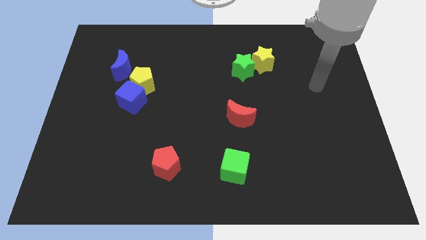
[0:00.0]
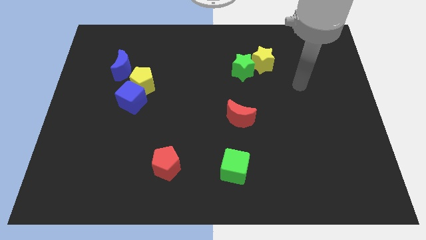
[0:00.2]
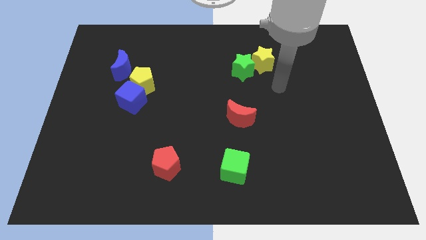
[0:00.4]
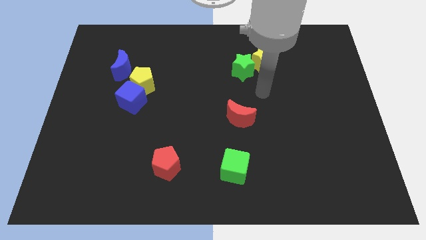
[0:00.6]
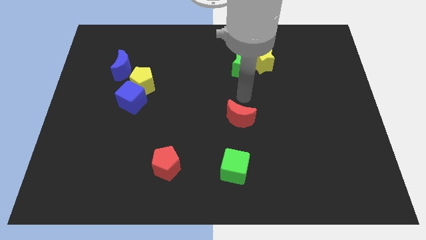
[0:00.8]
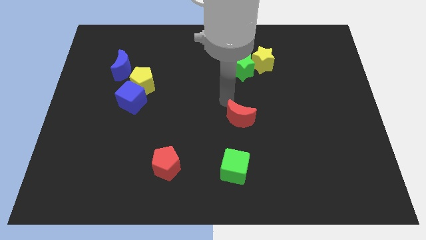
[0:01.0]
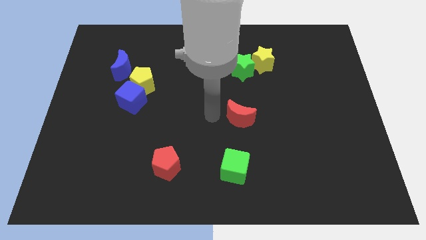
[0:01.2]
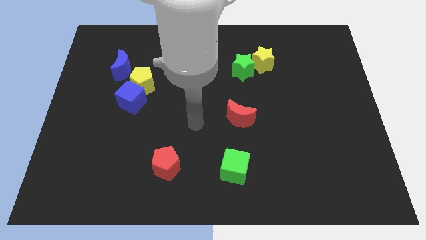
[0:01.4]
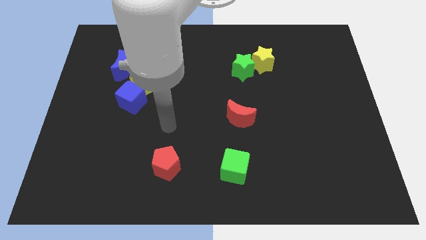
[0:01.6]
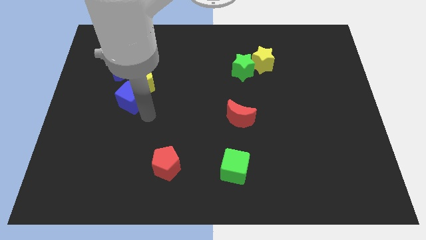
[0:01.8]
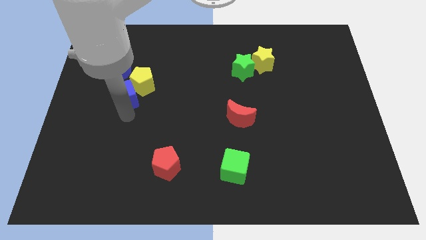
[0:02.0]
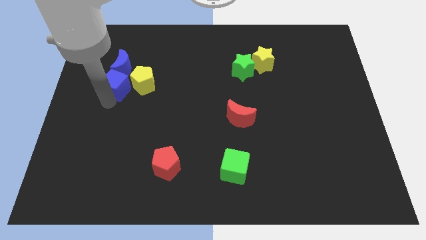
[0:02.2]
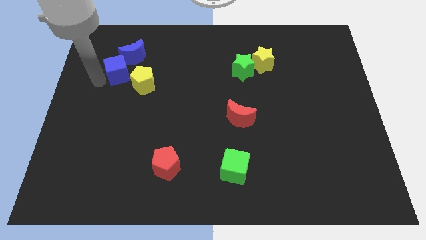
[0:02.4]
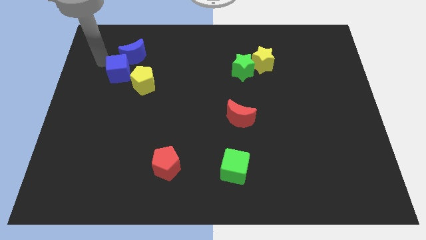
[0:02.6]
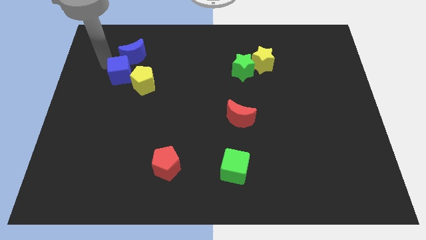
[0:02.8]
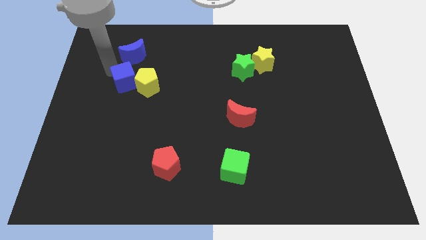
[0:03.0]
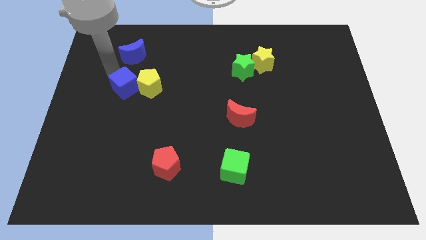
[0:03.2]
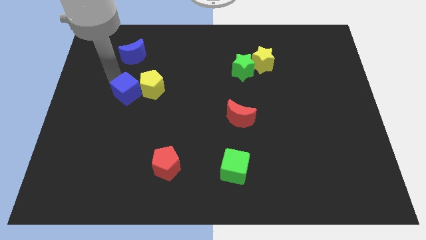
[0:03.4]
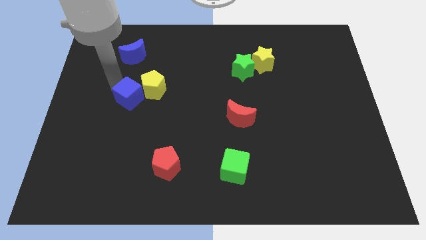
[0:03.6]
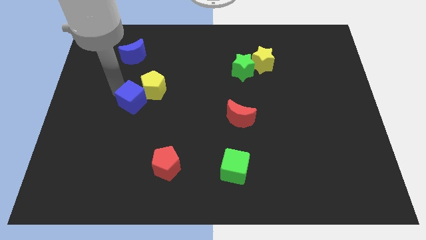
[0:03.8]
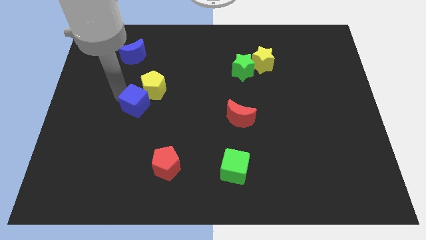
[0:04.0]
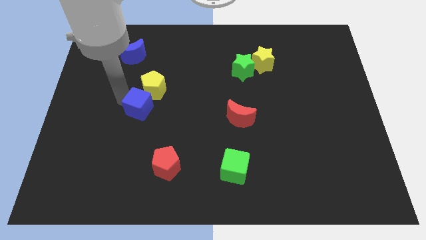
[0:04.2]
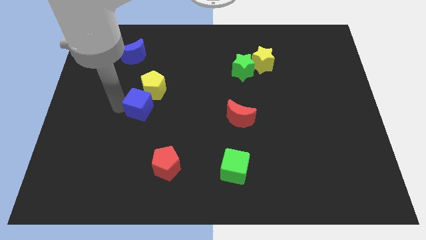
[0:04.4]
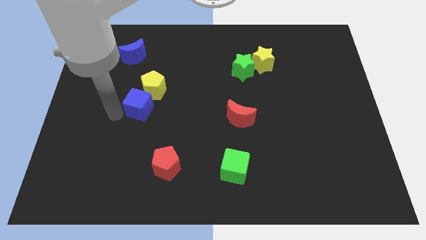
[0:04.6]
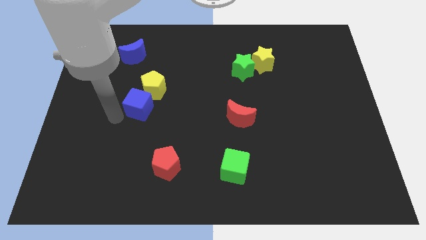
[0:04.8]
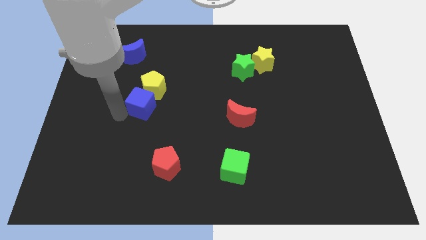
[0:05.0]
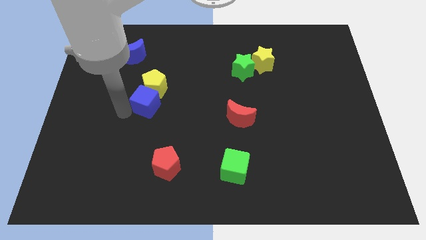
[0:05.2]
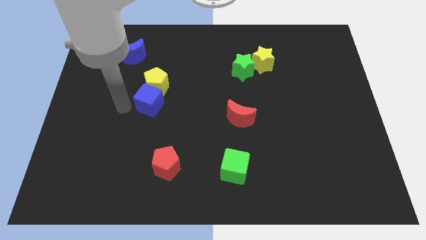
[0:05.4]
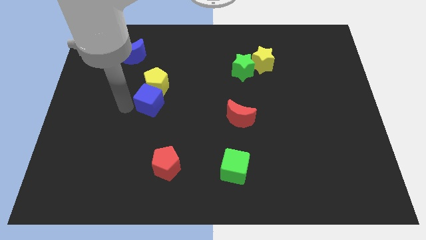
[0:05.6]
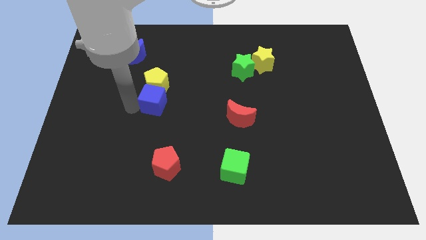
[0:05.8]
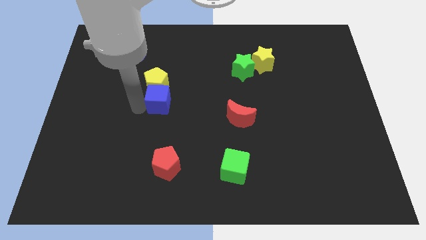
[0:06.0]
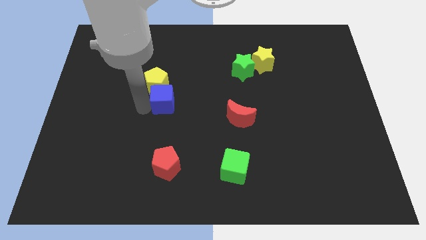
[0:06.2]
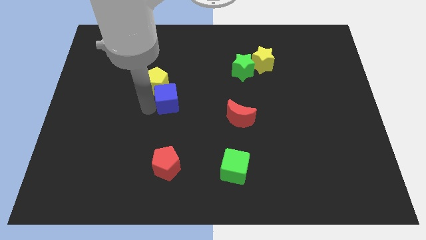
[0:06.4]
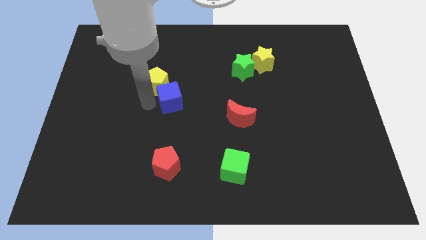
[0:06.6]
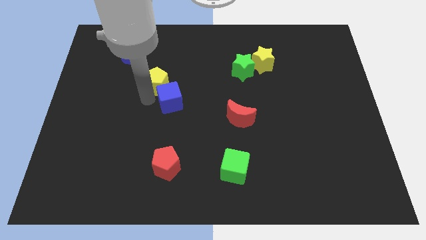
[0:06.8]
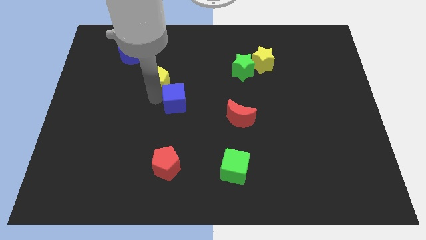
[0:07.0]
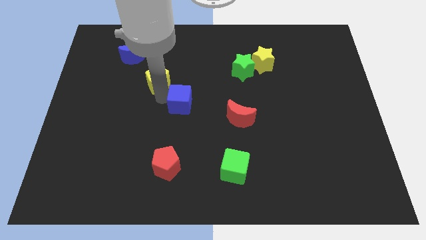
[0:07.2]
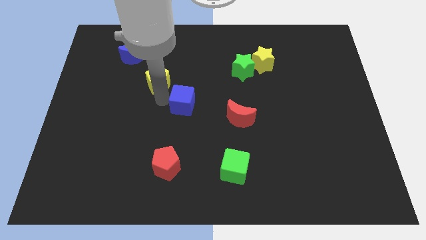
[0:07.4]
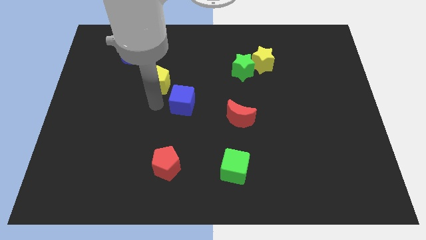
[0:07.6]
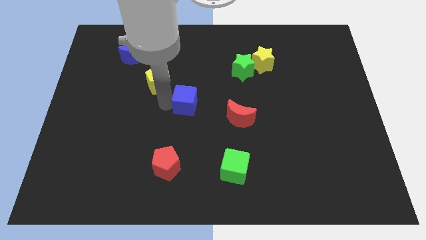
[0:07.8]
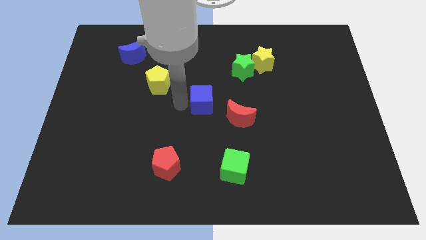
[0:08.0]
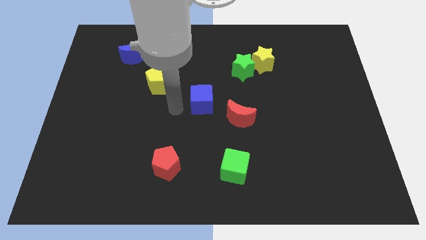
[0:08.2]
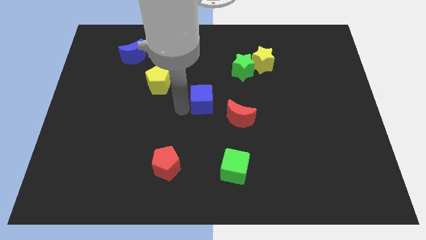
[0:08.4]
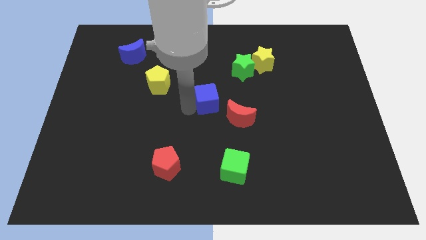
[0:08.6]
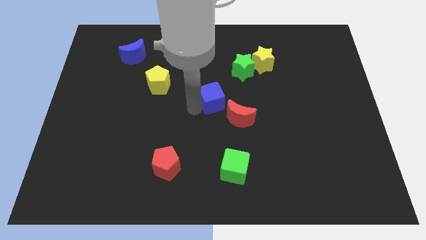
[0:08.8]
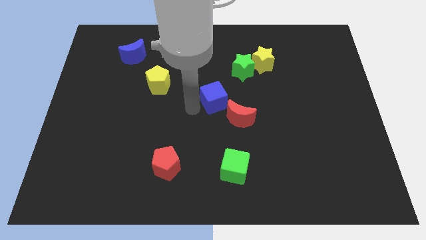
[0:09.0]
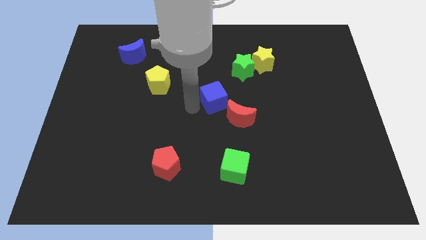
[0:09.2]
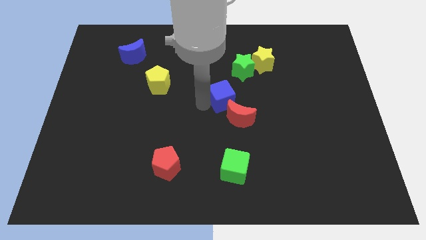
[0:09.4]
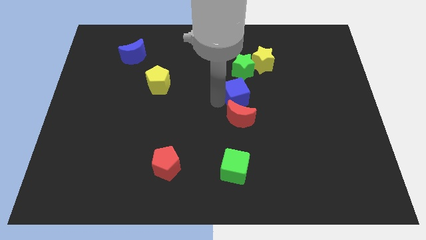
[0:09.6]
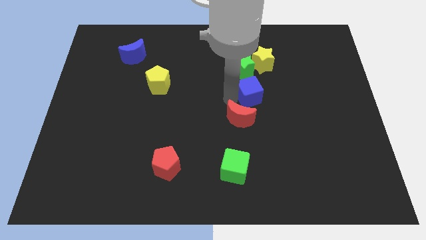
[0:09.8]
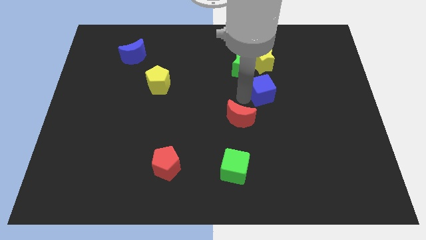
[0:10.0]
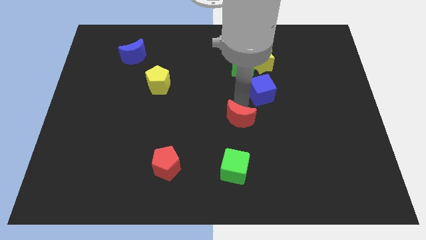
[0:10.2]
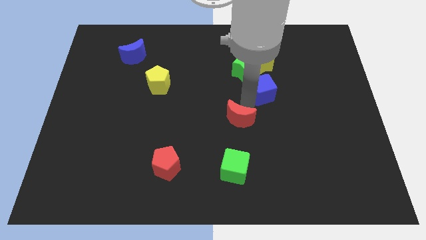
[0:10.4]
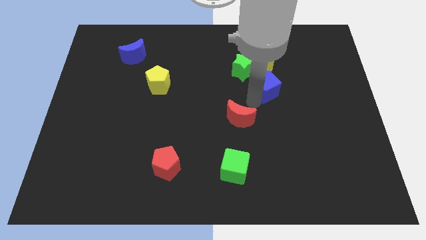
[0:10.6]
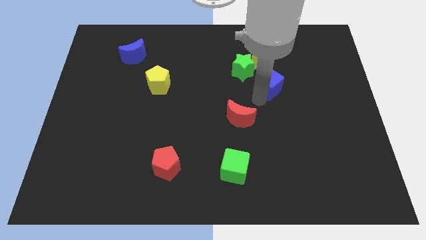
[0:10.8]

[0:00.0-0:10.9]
push the blue cube diagonally down and to the right of the yellow star

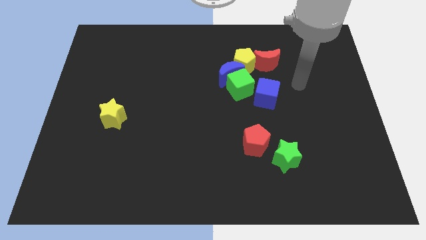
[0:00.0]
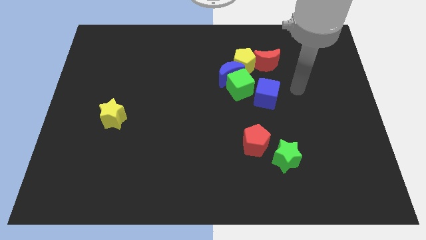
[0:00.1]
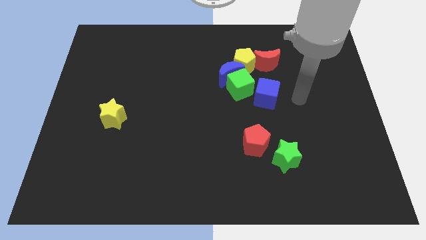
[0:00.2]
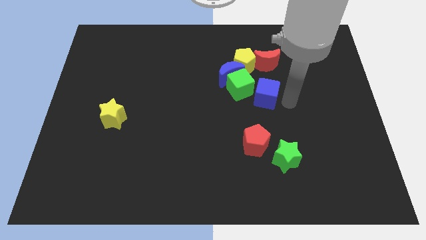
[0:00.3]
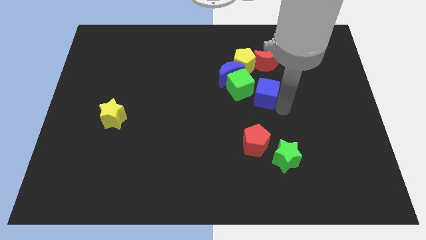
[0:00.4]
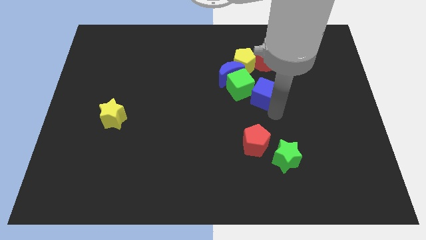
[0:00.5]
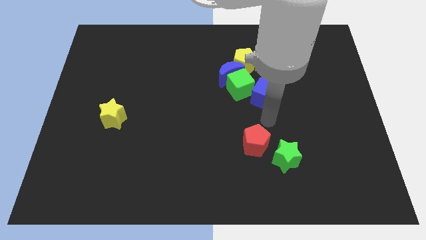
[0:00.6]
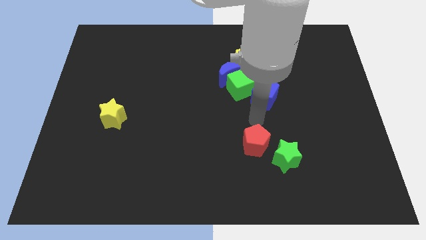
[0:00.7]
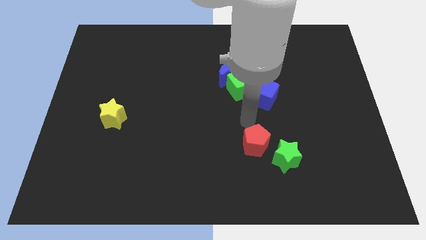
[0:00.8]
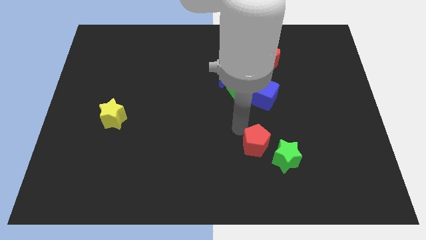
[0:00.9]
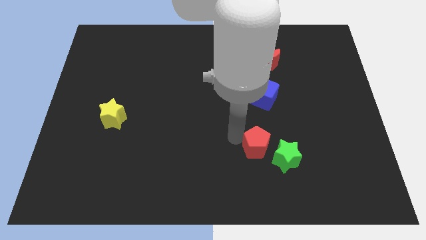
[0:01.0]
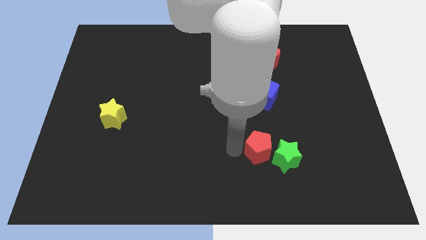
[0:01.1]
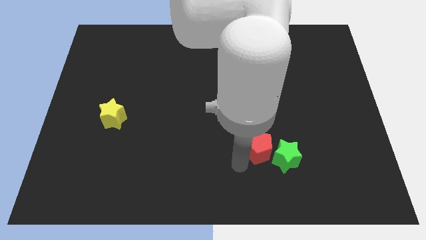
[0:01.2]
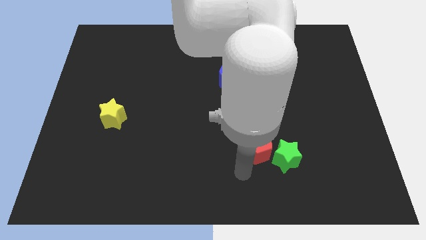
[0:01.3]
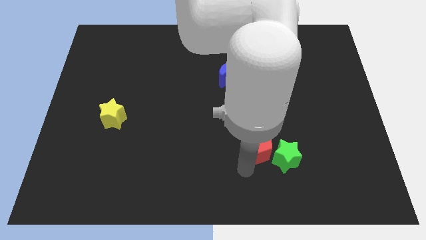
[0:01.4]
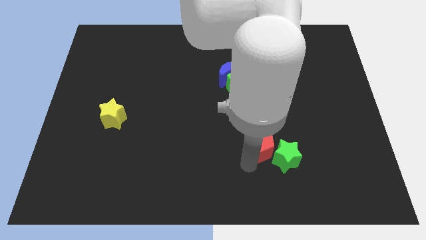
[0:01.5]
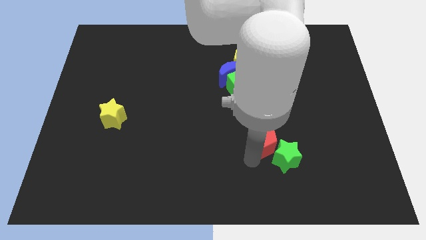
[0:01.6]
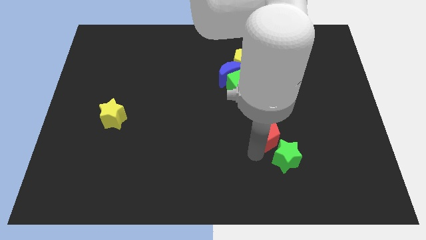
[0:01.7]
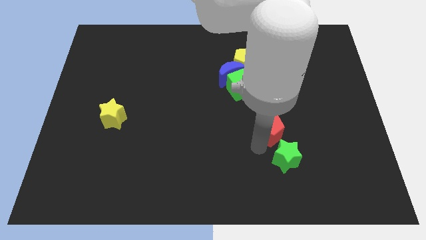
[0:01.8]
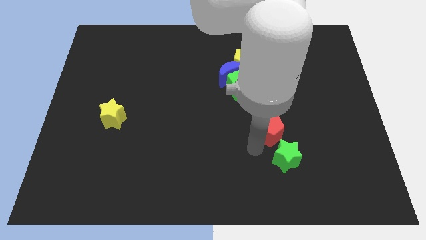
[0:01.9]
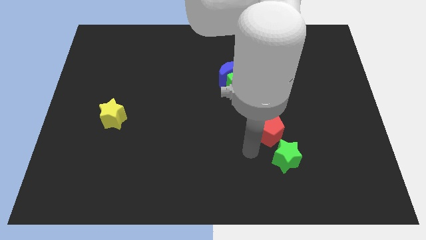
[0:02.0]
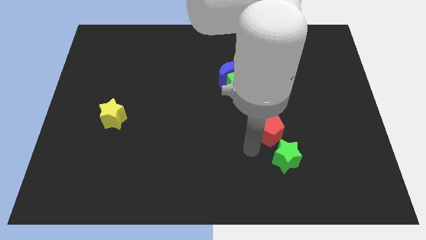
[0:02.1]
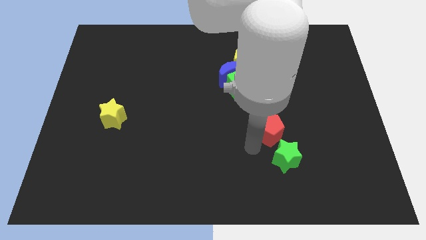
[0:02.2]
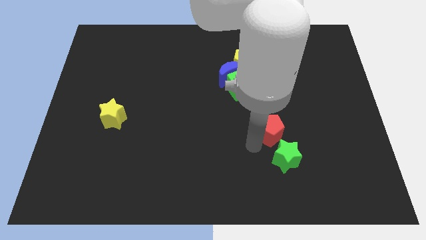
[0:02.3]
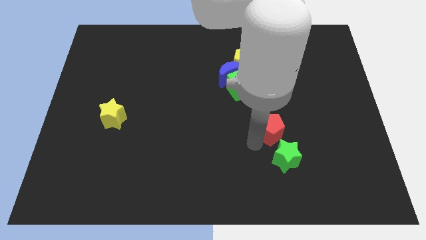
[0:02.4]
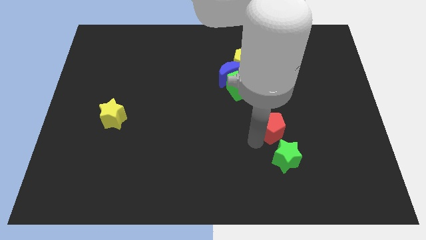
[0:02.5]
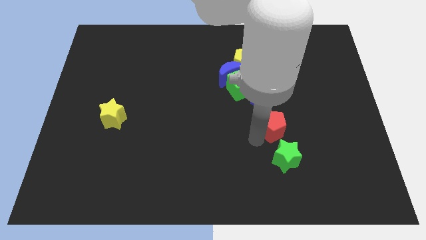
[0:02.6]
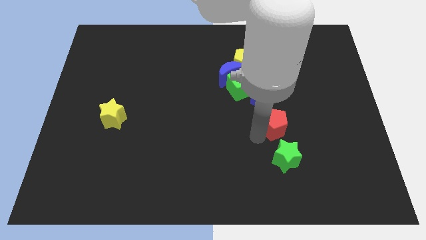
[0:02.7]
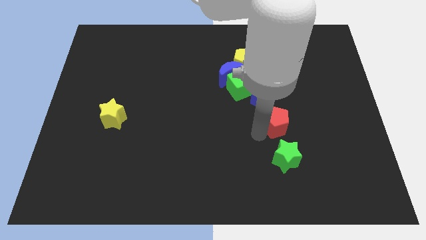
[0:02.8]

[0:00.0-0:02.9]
slide the red pentagon to the bottom right side of the blue cube
